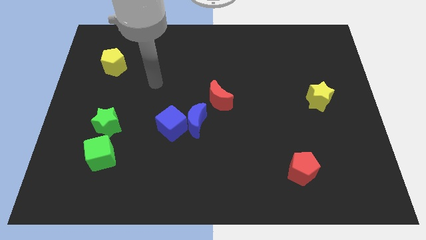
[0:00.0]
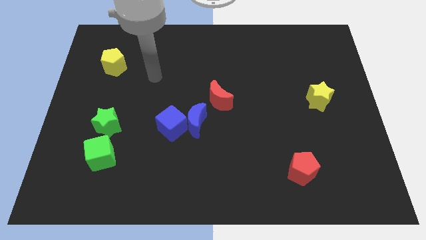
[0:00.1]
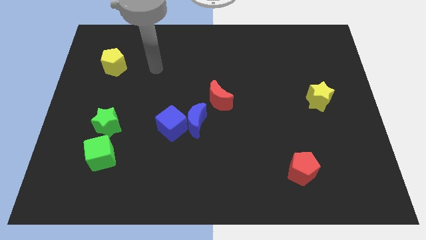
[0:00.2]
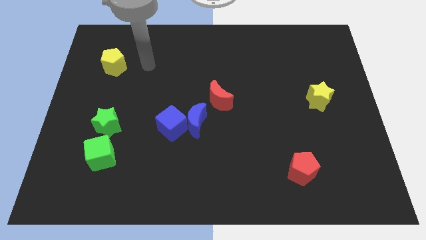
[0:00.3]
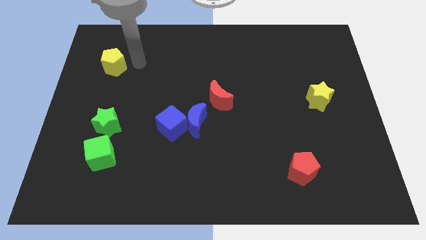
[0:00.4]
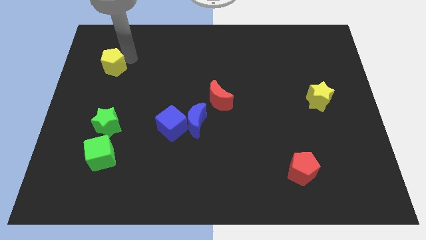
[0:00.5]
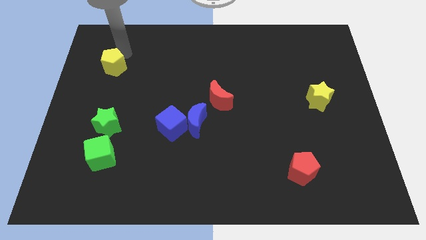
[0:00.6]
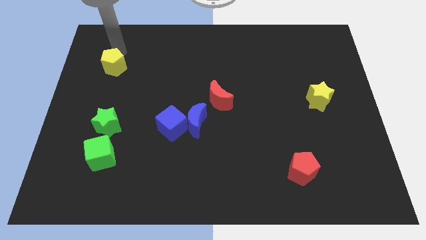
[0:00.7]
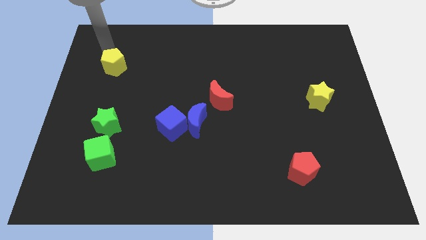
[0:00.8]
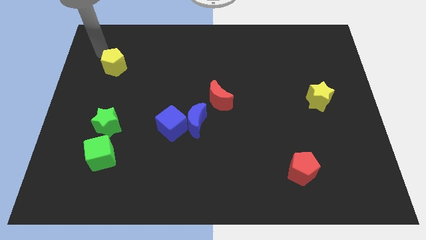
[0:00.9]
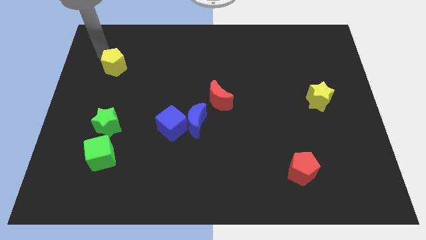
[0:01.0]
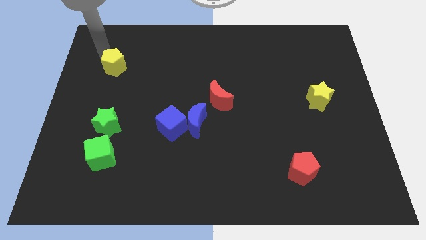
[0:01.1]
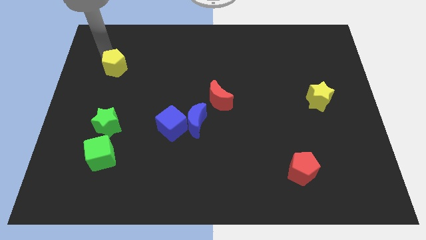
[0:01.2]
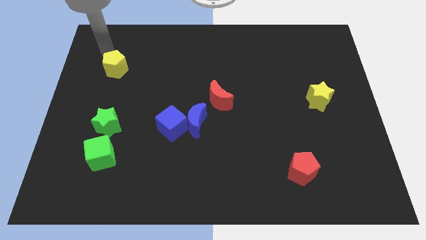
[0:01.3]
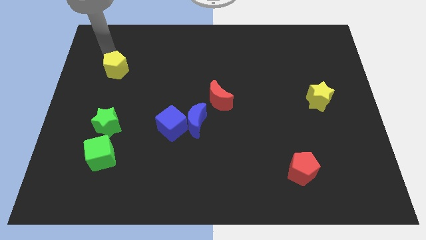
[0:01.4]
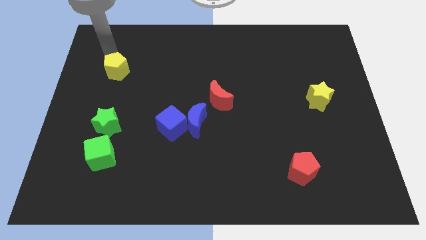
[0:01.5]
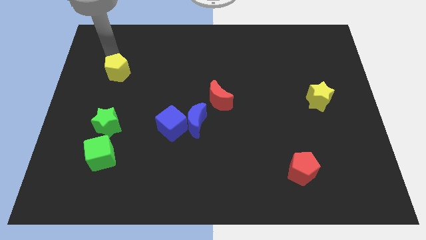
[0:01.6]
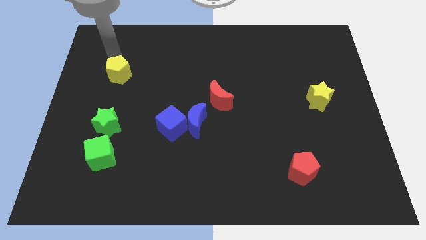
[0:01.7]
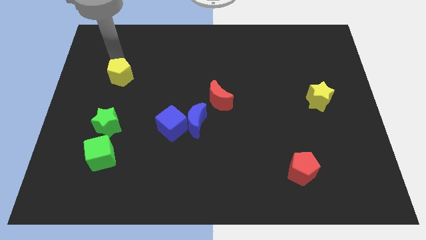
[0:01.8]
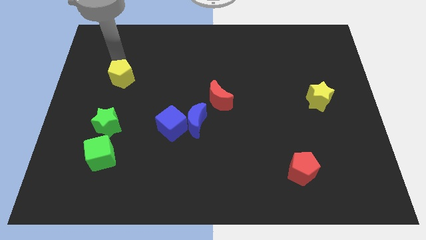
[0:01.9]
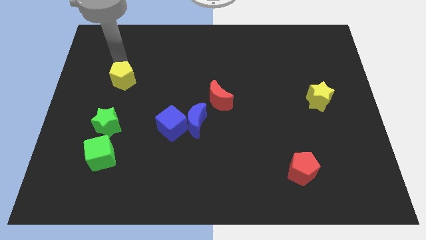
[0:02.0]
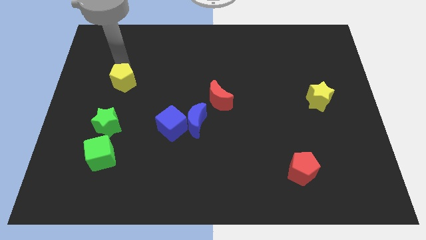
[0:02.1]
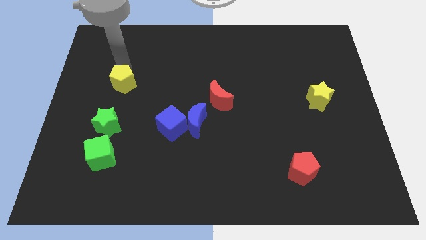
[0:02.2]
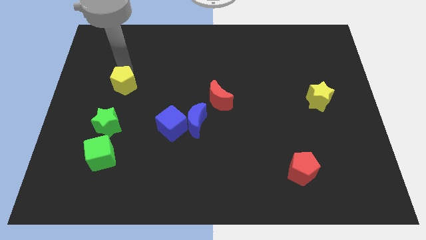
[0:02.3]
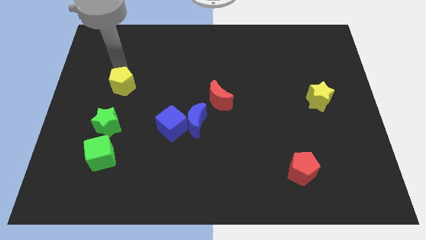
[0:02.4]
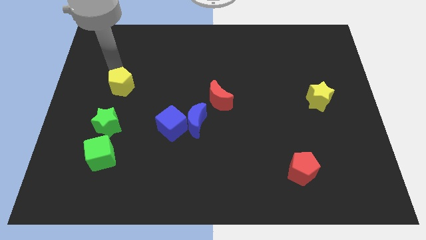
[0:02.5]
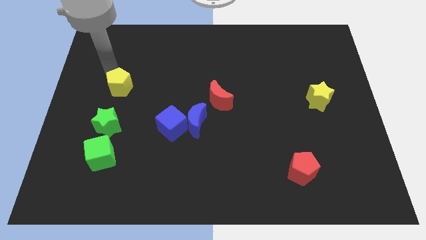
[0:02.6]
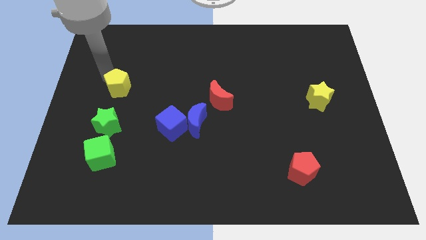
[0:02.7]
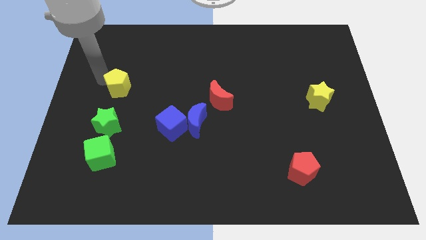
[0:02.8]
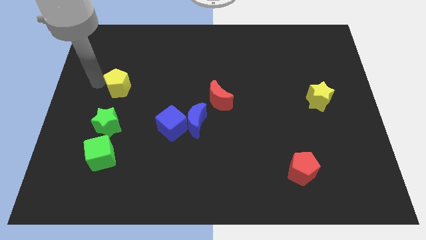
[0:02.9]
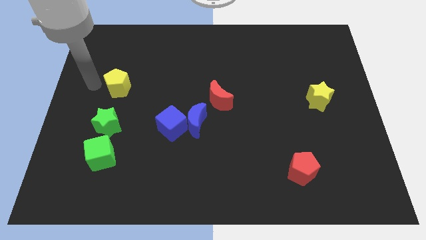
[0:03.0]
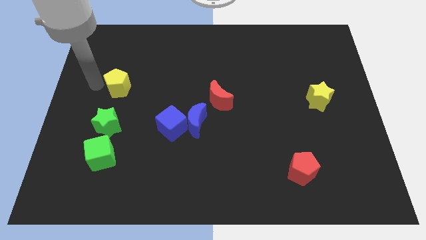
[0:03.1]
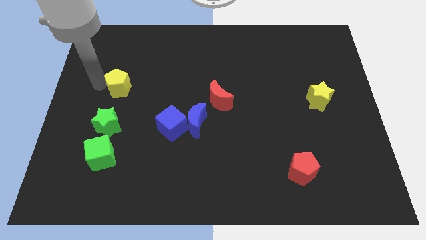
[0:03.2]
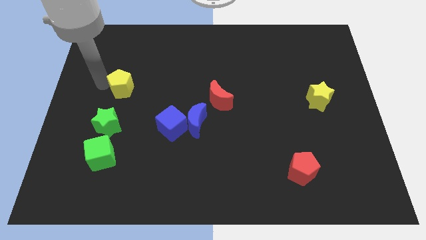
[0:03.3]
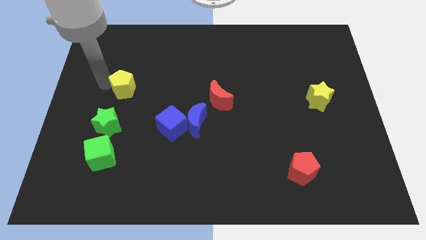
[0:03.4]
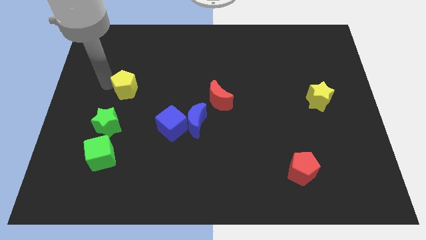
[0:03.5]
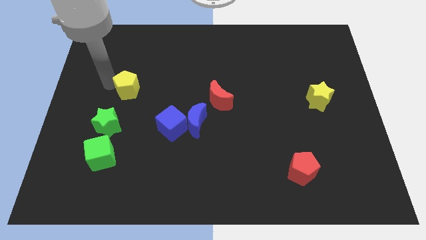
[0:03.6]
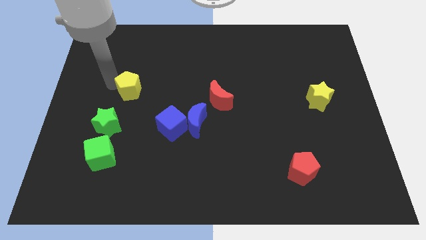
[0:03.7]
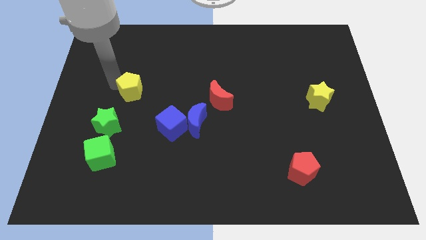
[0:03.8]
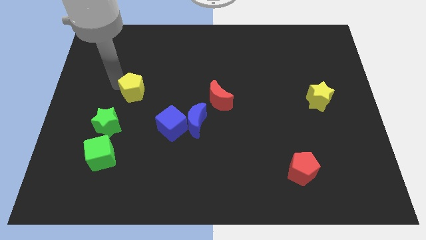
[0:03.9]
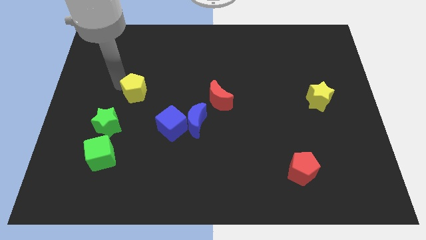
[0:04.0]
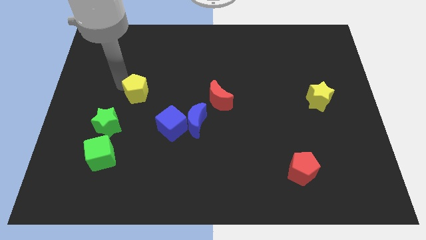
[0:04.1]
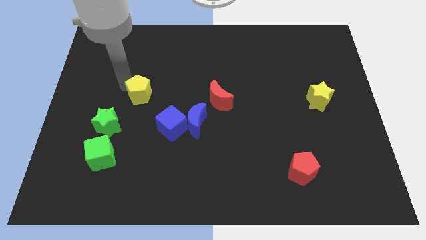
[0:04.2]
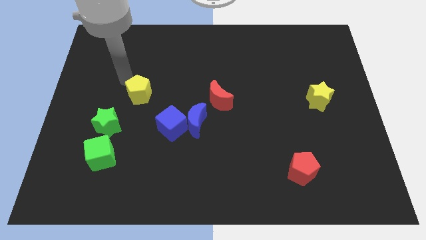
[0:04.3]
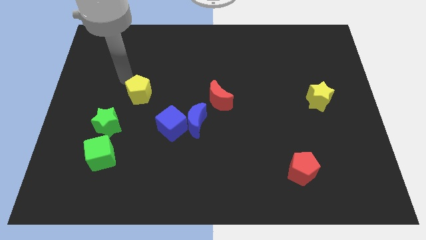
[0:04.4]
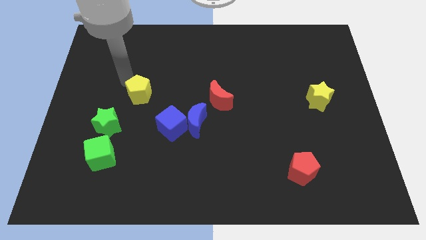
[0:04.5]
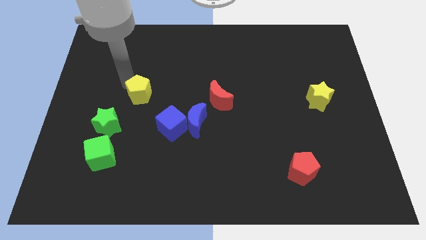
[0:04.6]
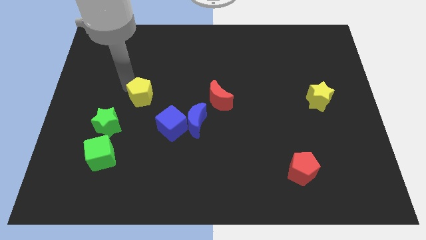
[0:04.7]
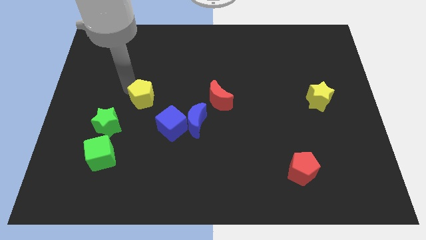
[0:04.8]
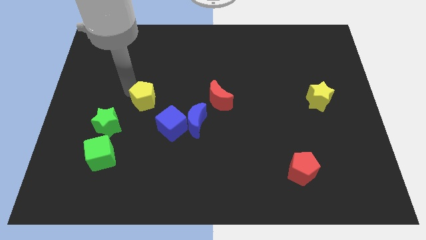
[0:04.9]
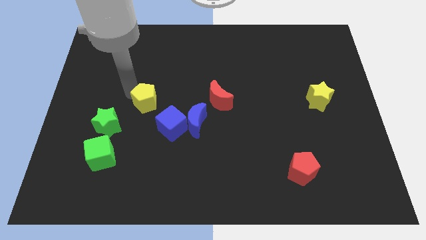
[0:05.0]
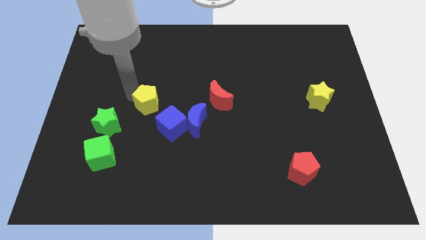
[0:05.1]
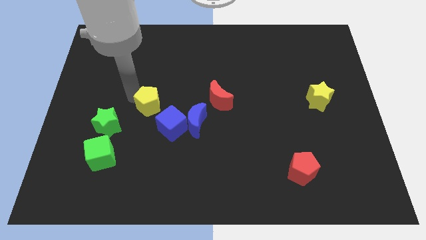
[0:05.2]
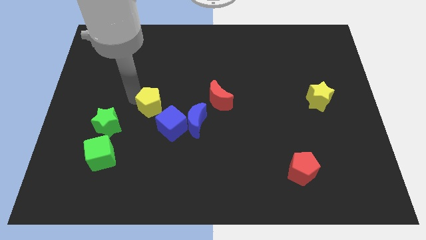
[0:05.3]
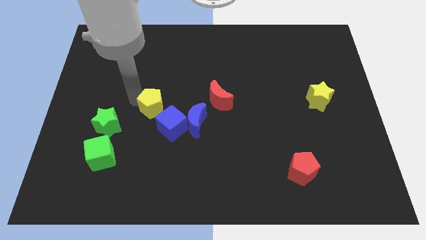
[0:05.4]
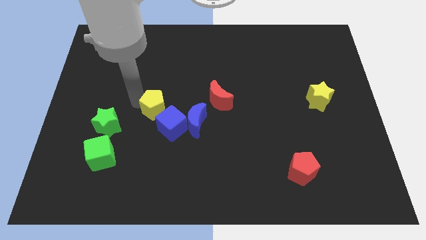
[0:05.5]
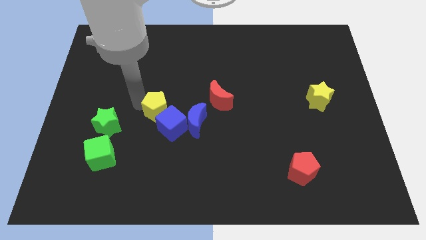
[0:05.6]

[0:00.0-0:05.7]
push the yellow pentagon close to the blue cube

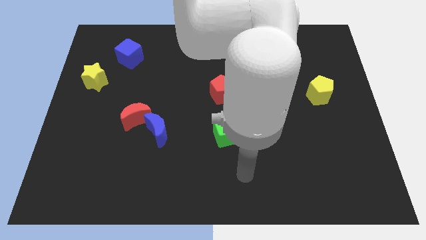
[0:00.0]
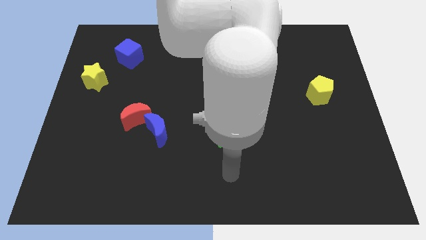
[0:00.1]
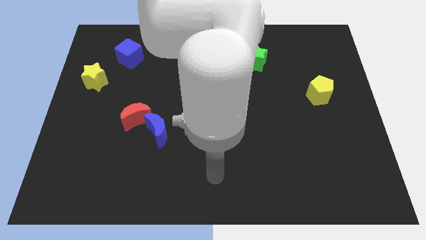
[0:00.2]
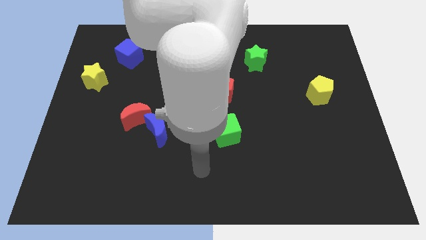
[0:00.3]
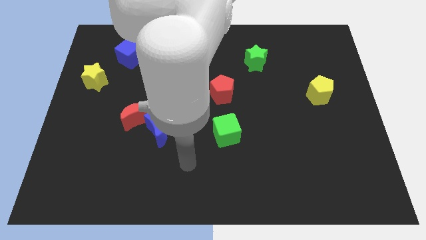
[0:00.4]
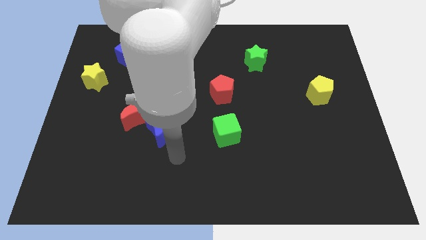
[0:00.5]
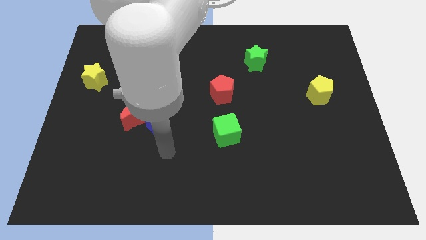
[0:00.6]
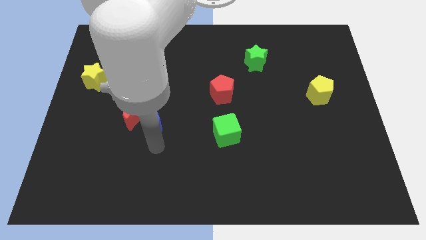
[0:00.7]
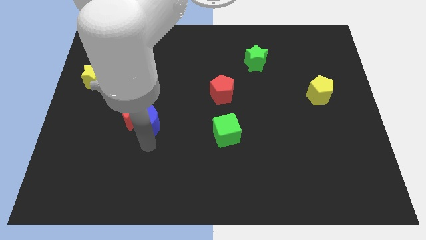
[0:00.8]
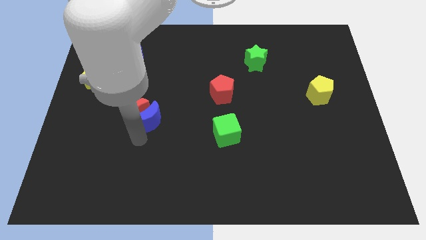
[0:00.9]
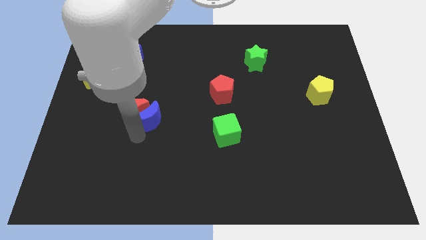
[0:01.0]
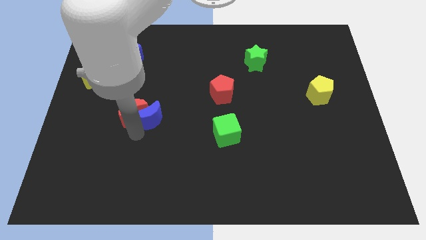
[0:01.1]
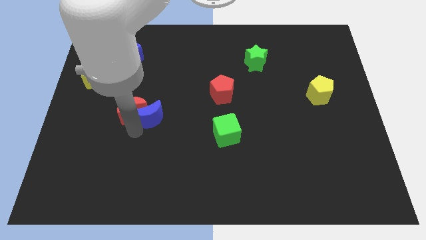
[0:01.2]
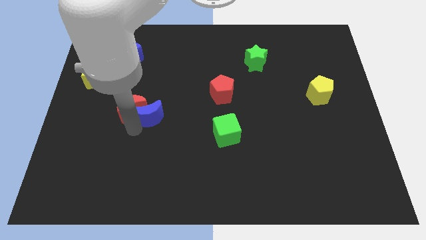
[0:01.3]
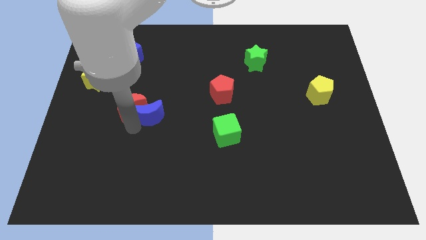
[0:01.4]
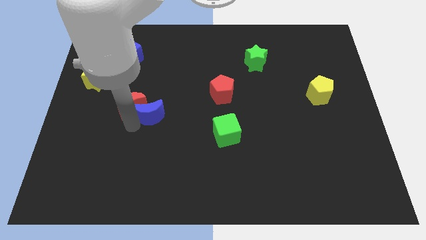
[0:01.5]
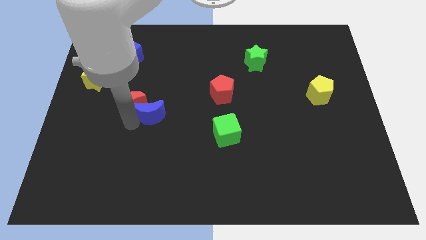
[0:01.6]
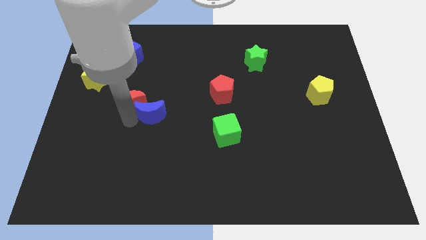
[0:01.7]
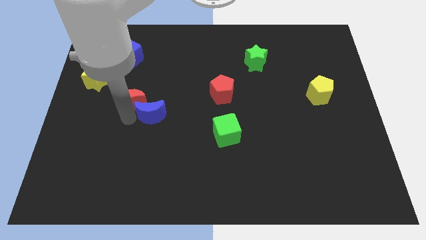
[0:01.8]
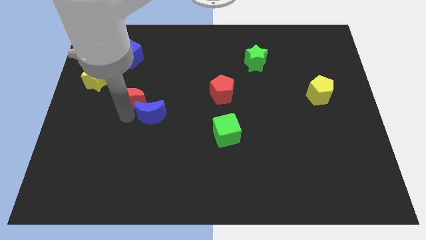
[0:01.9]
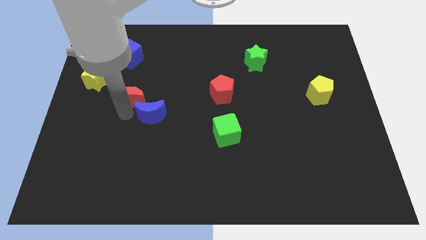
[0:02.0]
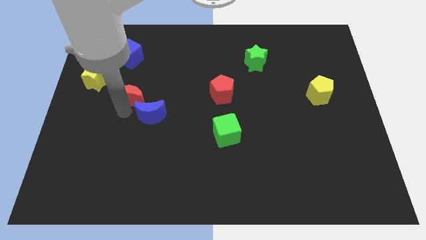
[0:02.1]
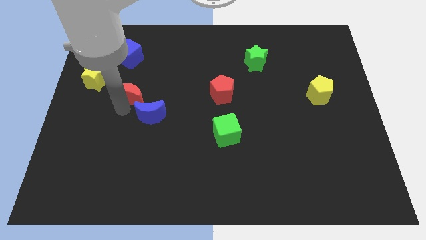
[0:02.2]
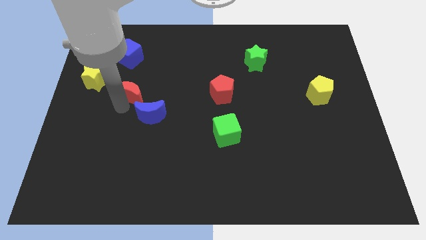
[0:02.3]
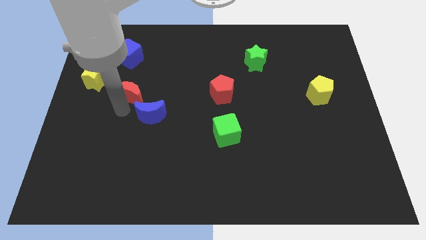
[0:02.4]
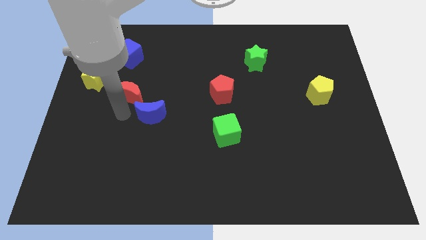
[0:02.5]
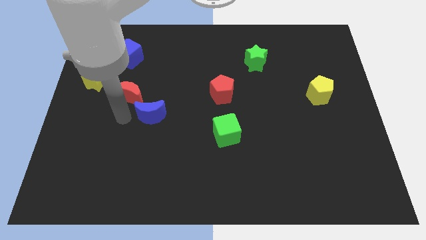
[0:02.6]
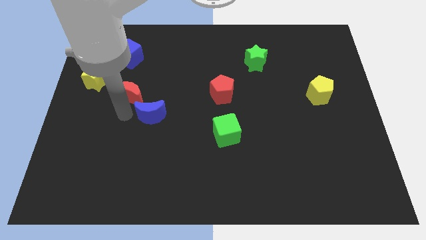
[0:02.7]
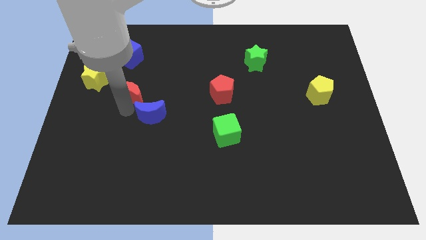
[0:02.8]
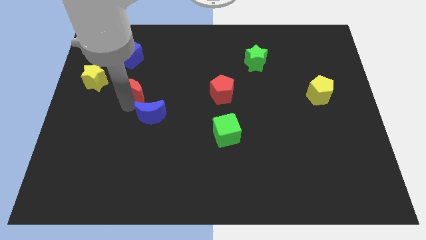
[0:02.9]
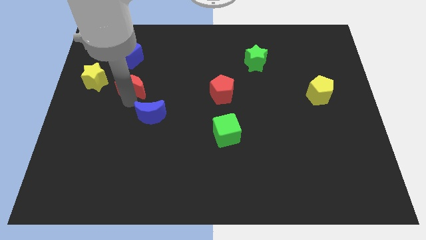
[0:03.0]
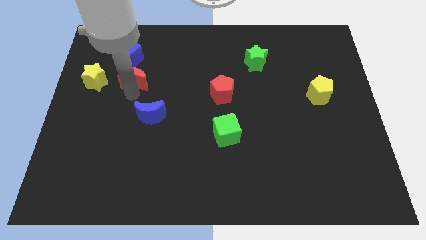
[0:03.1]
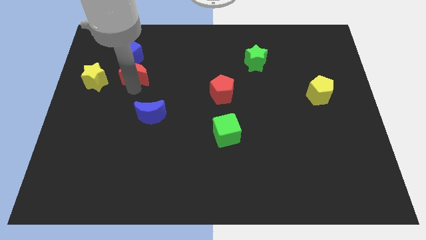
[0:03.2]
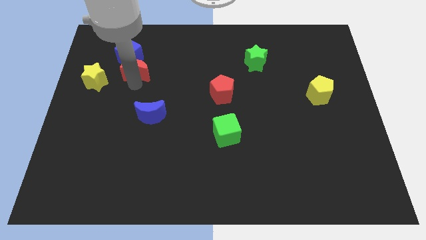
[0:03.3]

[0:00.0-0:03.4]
put the red moon close to the blue cube
